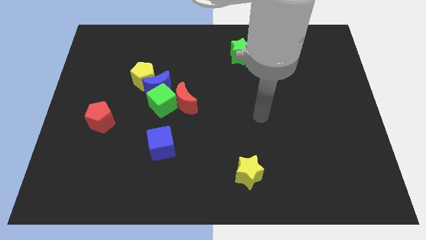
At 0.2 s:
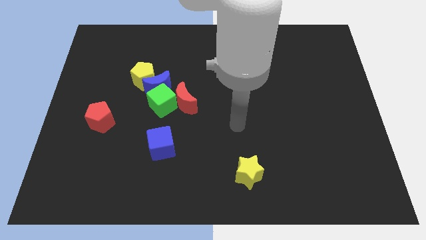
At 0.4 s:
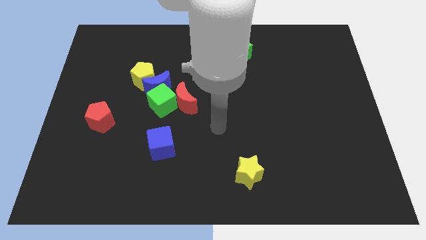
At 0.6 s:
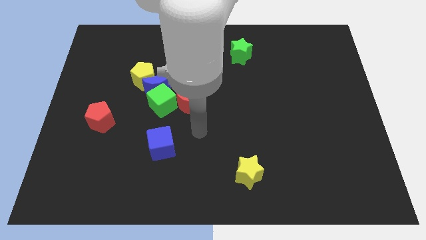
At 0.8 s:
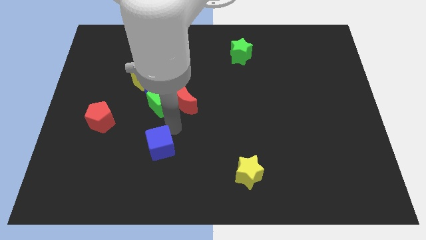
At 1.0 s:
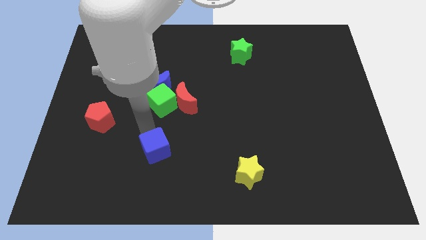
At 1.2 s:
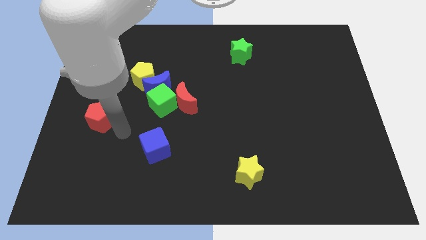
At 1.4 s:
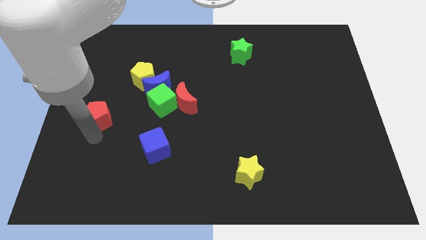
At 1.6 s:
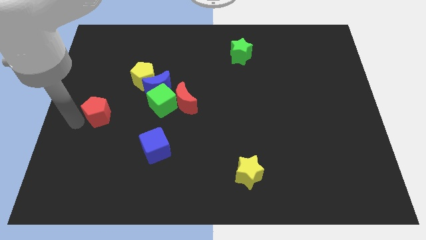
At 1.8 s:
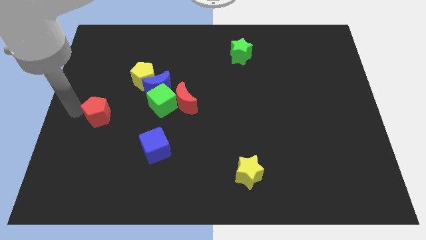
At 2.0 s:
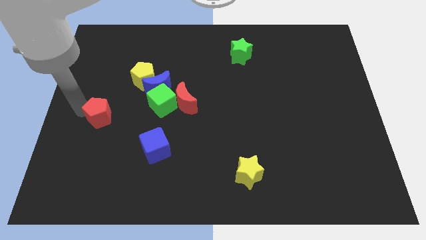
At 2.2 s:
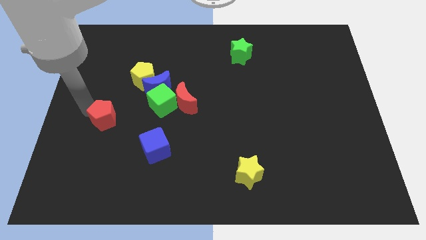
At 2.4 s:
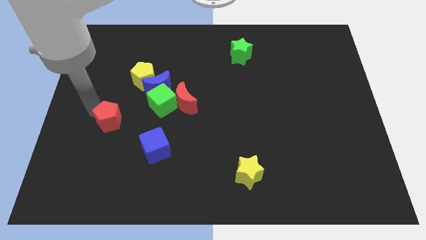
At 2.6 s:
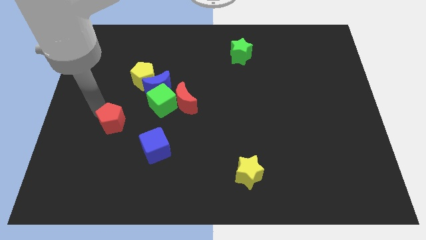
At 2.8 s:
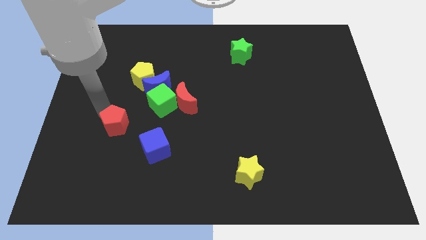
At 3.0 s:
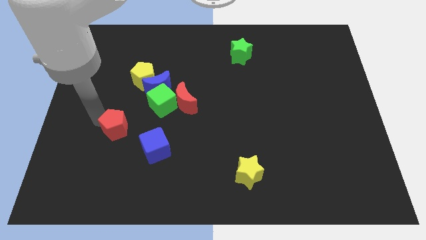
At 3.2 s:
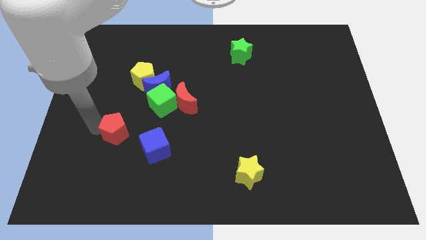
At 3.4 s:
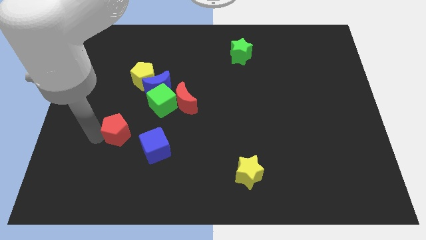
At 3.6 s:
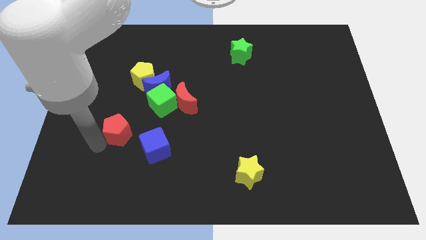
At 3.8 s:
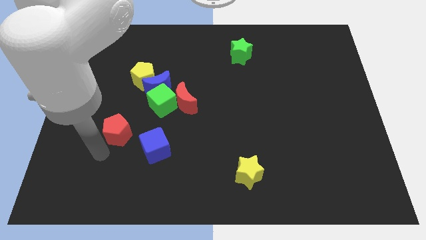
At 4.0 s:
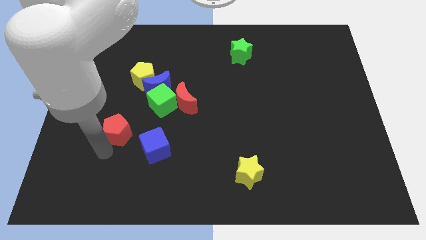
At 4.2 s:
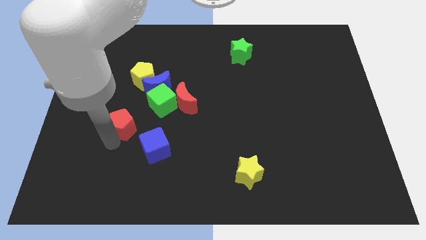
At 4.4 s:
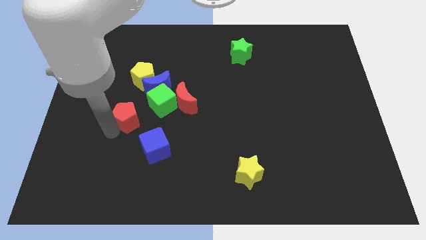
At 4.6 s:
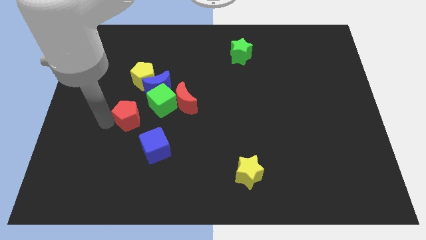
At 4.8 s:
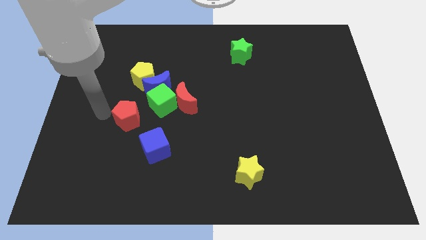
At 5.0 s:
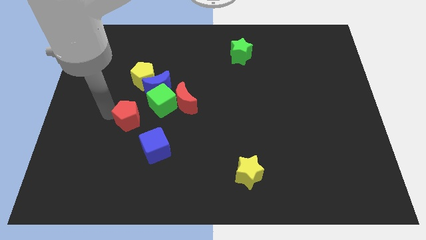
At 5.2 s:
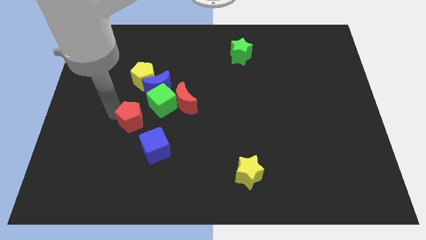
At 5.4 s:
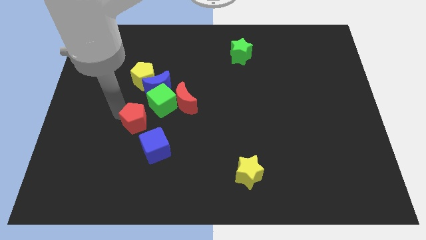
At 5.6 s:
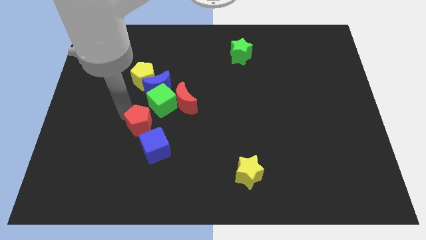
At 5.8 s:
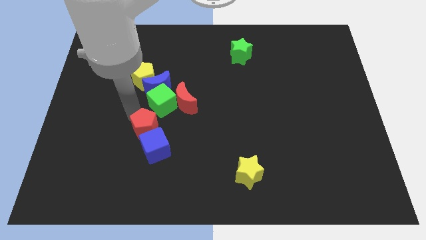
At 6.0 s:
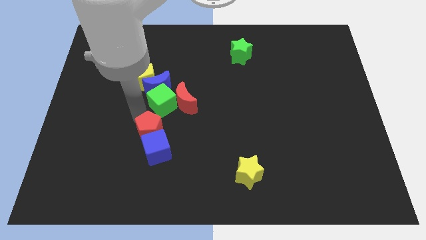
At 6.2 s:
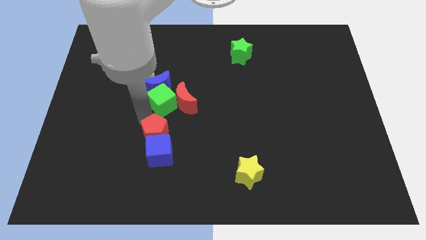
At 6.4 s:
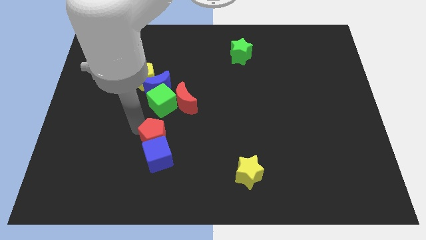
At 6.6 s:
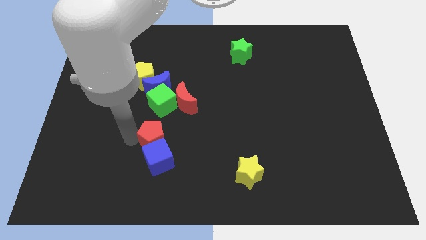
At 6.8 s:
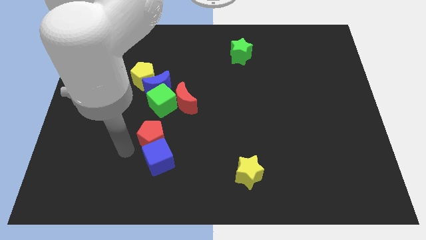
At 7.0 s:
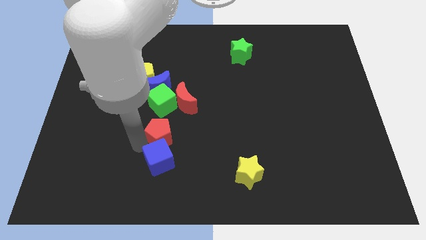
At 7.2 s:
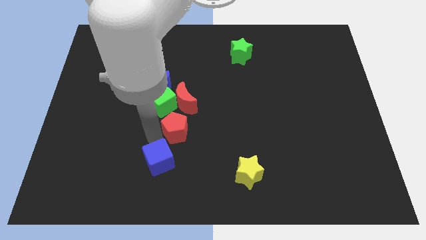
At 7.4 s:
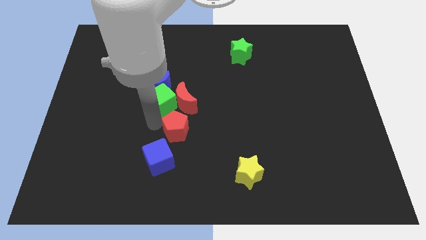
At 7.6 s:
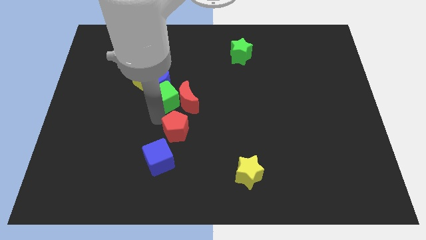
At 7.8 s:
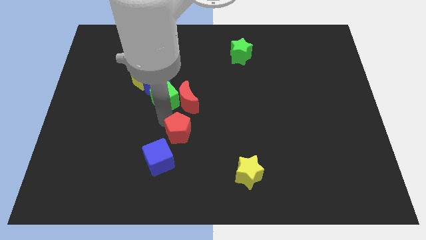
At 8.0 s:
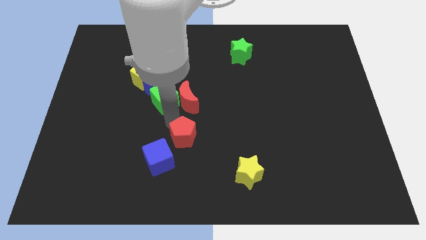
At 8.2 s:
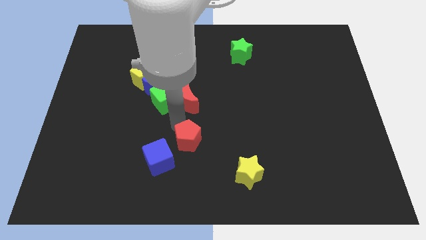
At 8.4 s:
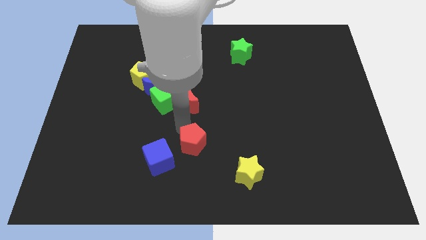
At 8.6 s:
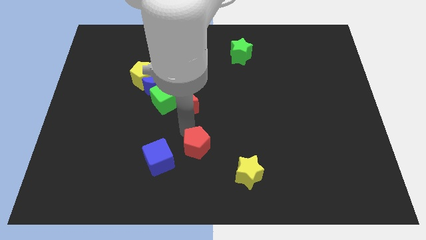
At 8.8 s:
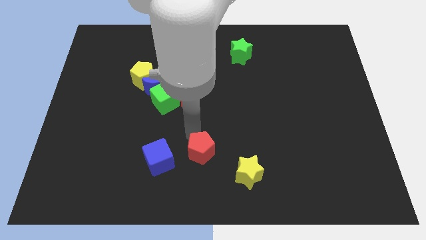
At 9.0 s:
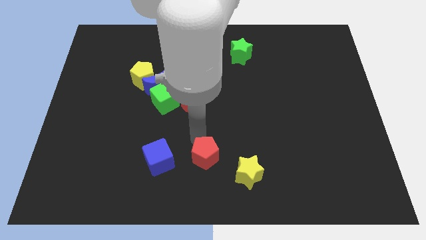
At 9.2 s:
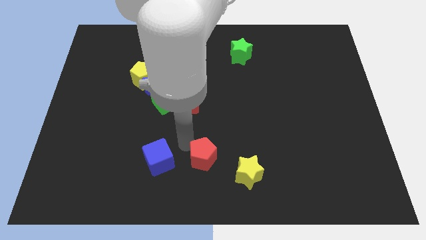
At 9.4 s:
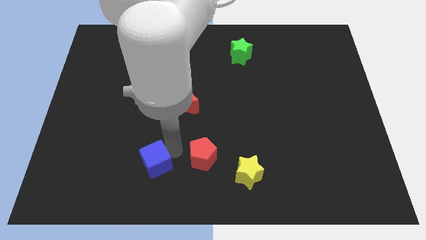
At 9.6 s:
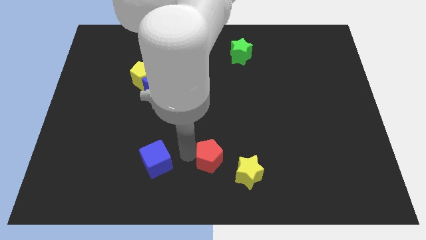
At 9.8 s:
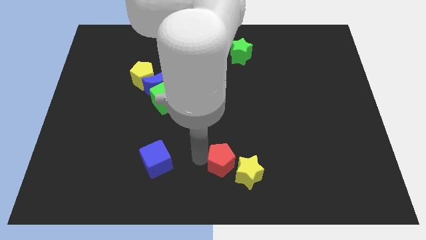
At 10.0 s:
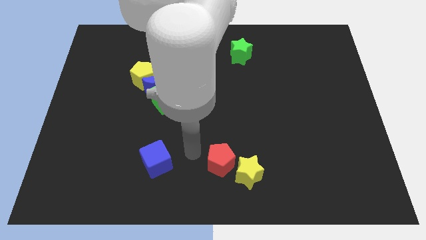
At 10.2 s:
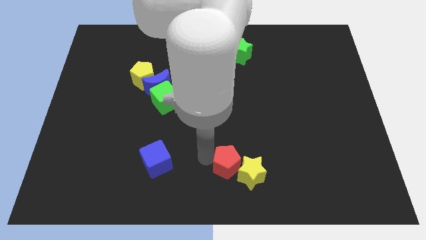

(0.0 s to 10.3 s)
put the red pentagon next to the yellow star

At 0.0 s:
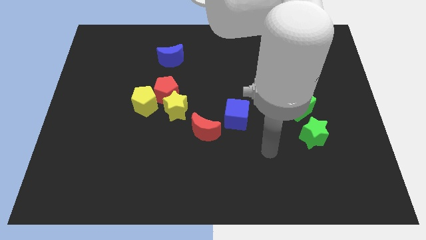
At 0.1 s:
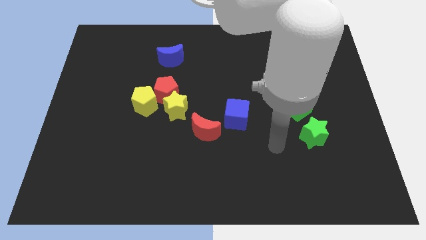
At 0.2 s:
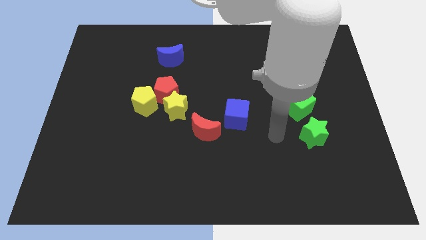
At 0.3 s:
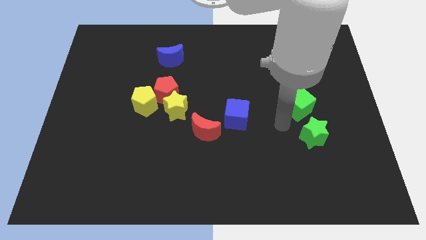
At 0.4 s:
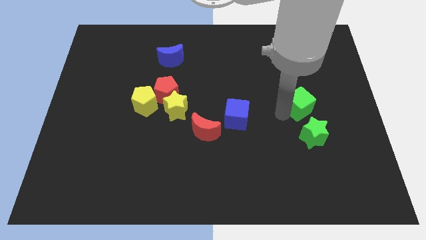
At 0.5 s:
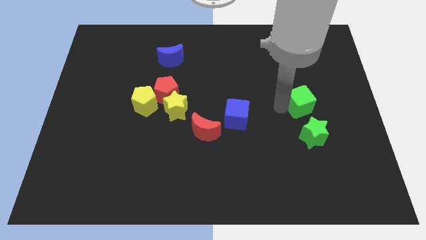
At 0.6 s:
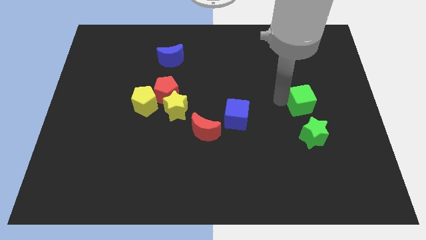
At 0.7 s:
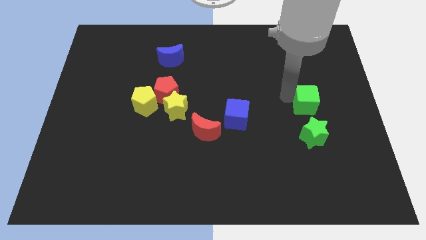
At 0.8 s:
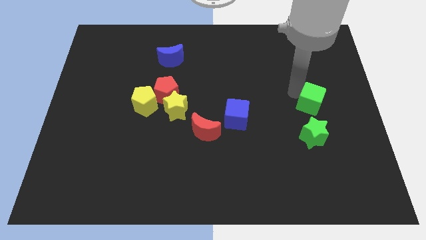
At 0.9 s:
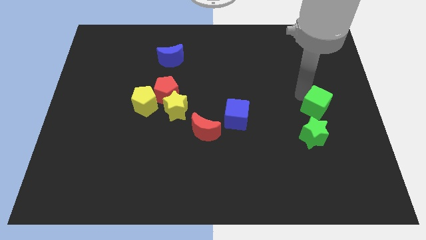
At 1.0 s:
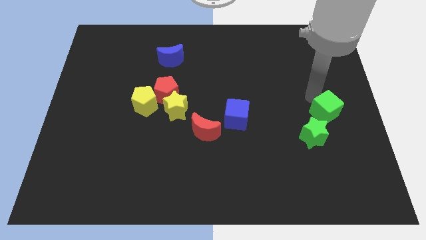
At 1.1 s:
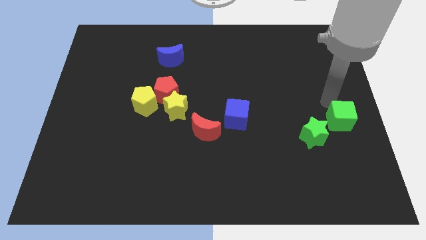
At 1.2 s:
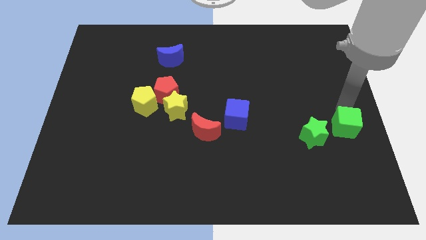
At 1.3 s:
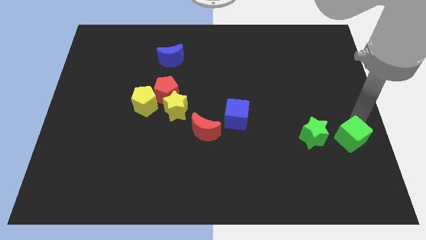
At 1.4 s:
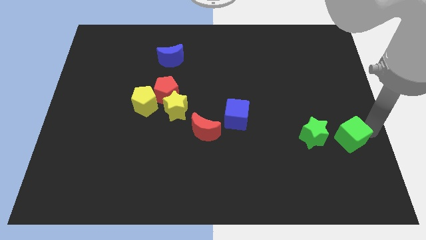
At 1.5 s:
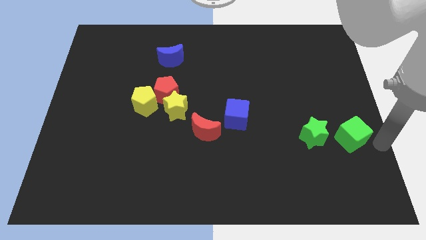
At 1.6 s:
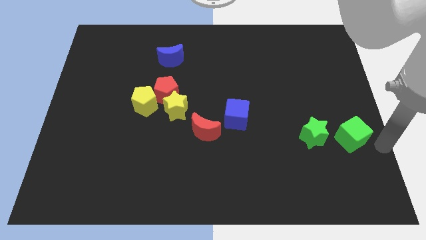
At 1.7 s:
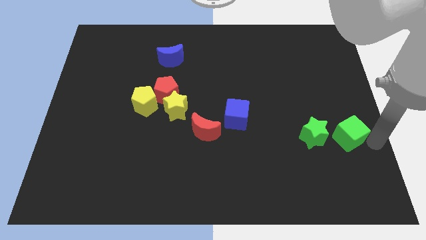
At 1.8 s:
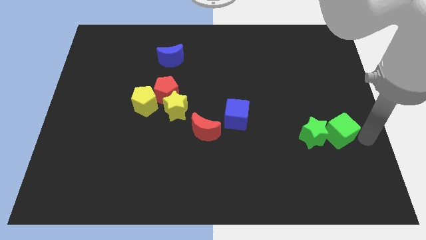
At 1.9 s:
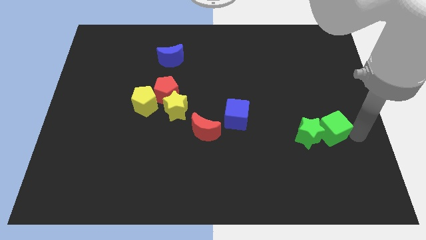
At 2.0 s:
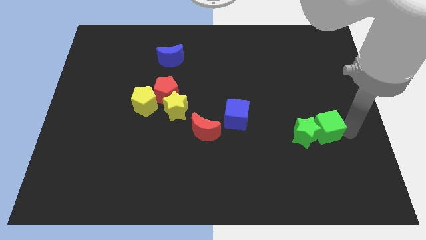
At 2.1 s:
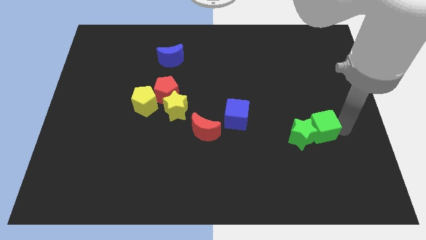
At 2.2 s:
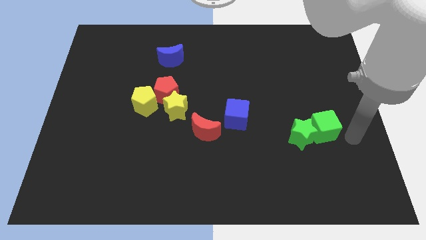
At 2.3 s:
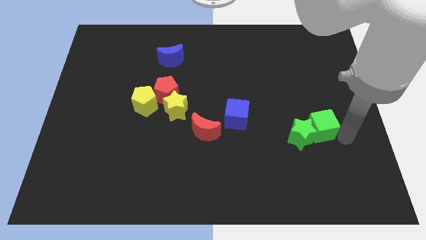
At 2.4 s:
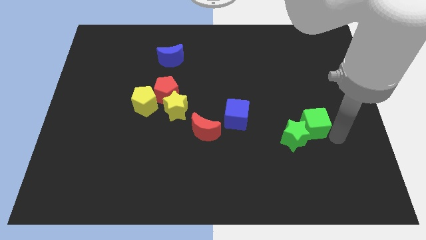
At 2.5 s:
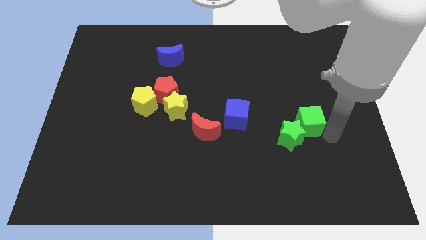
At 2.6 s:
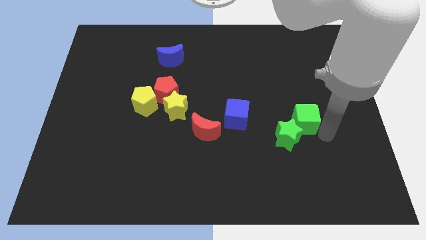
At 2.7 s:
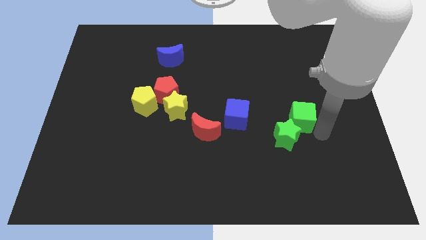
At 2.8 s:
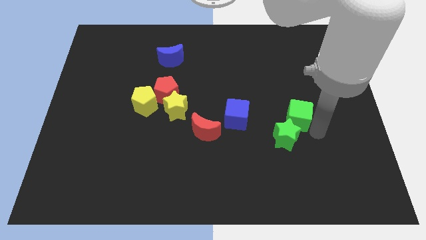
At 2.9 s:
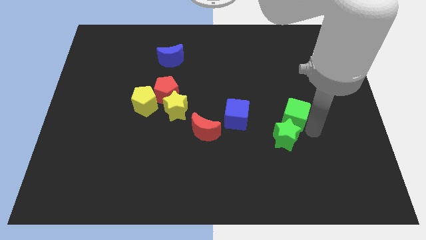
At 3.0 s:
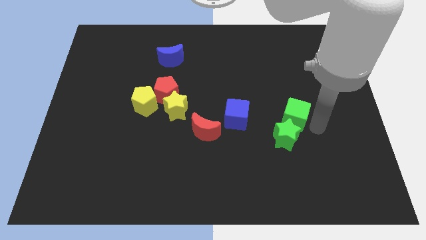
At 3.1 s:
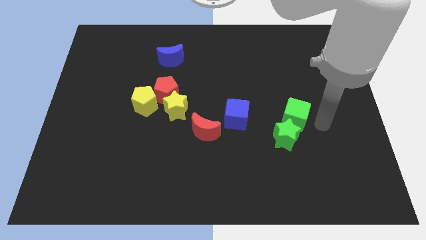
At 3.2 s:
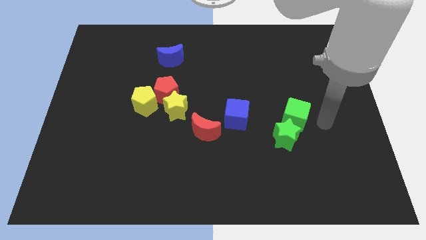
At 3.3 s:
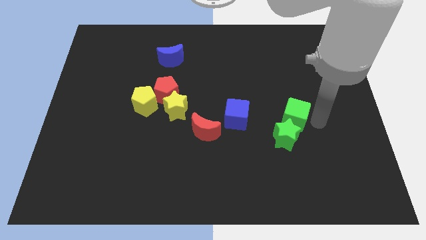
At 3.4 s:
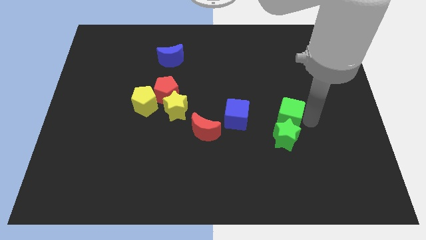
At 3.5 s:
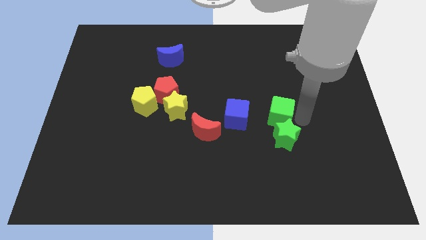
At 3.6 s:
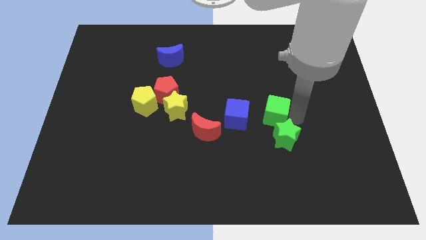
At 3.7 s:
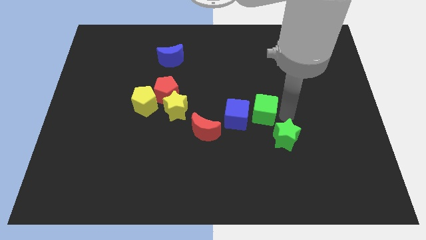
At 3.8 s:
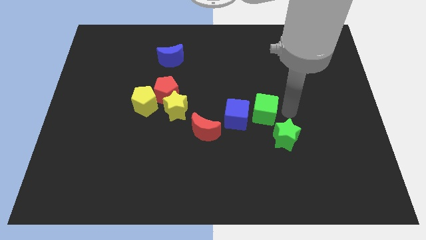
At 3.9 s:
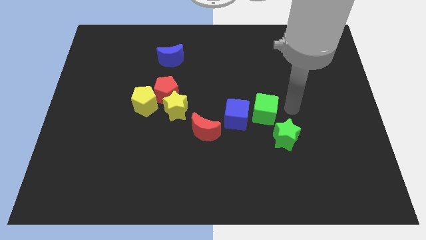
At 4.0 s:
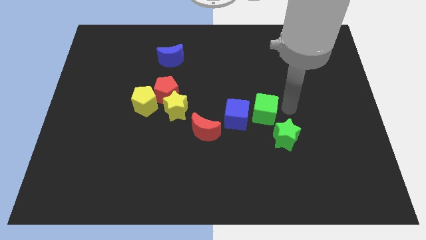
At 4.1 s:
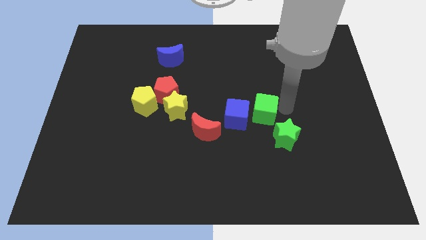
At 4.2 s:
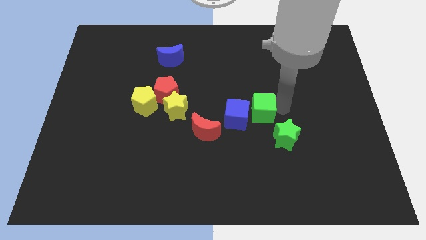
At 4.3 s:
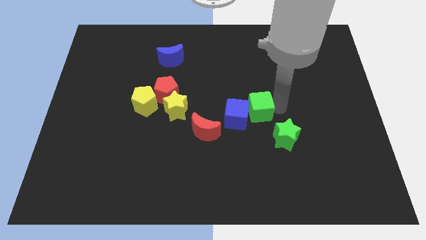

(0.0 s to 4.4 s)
push the green cube to the blue cube
